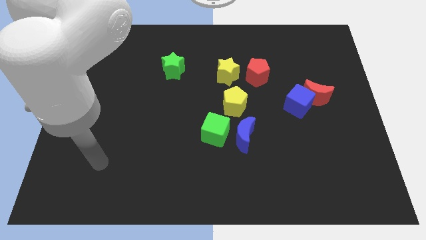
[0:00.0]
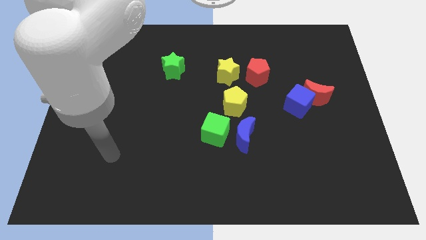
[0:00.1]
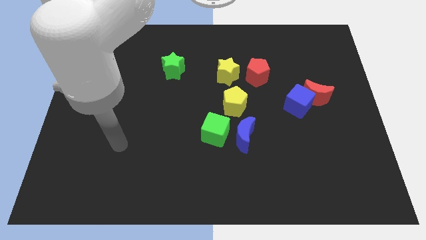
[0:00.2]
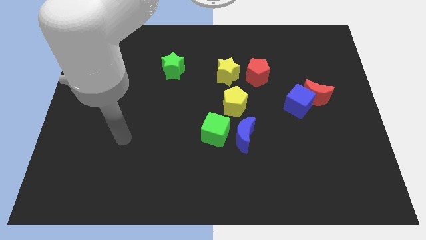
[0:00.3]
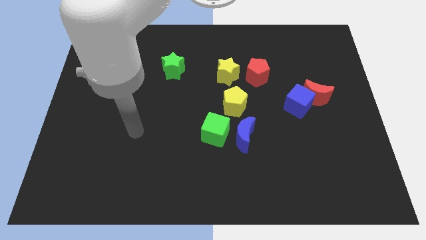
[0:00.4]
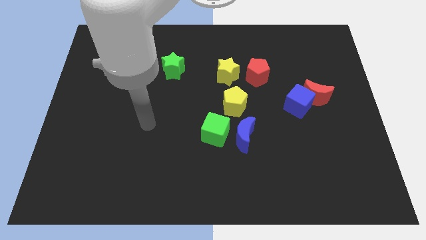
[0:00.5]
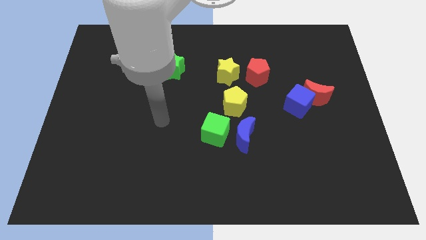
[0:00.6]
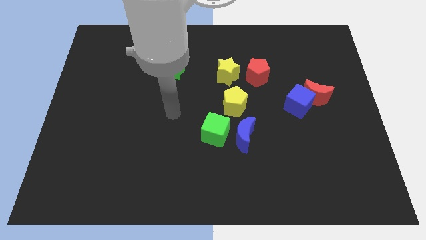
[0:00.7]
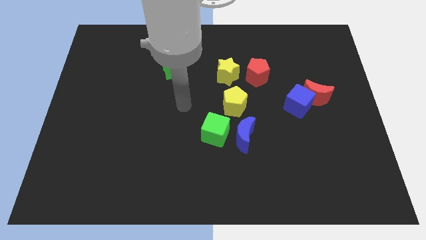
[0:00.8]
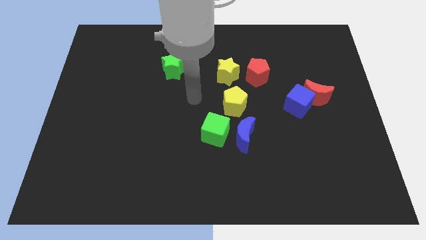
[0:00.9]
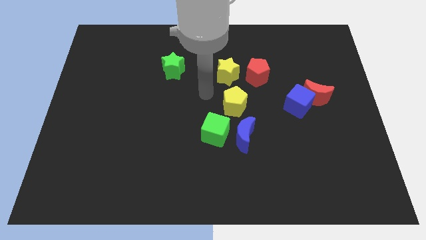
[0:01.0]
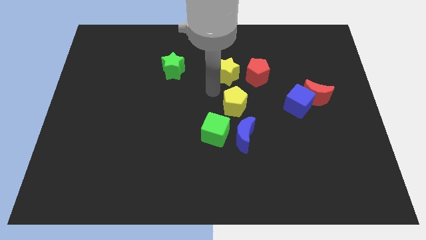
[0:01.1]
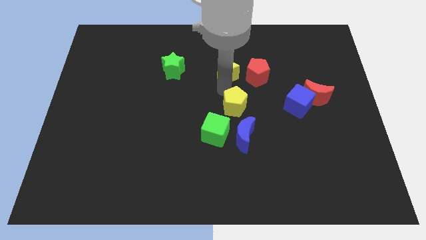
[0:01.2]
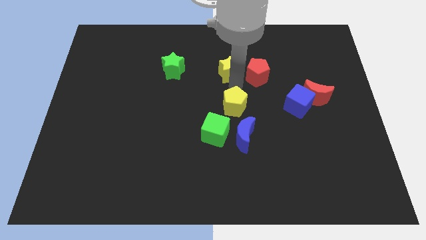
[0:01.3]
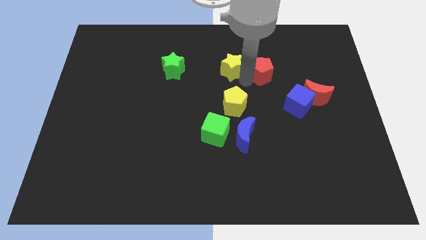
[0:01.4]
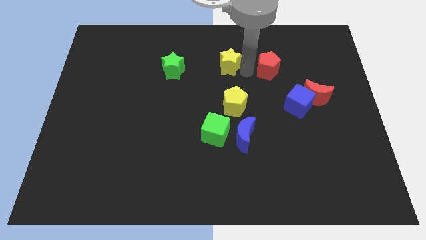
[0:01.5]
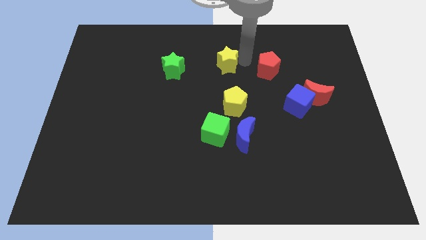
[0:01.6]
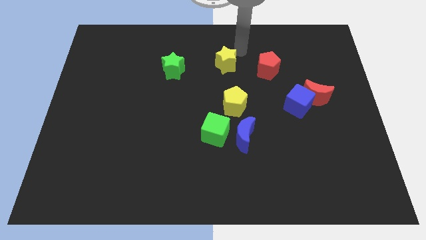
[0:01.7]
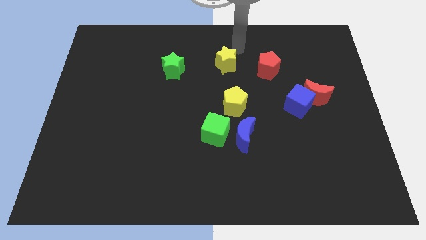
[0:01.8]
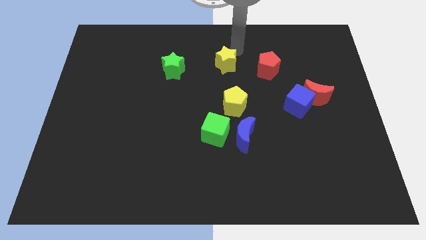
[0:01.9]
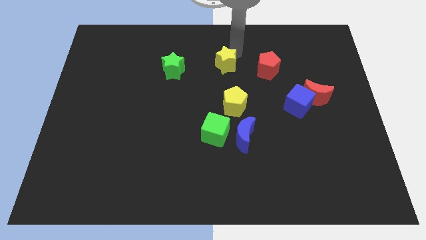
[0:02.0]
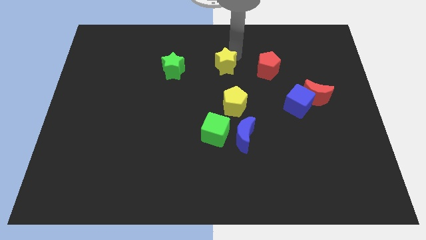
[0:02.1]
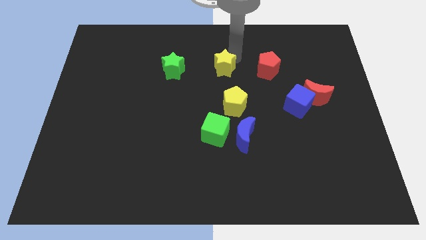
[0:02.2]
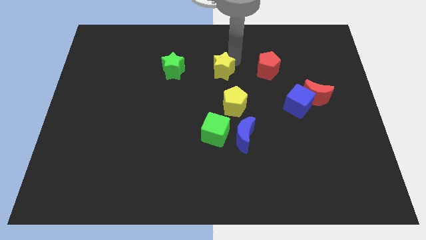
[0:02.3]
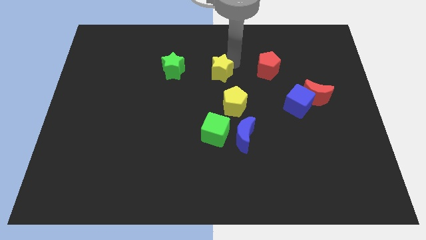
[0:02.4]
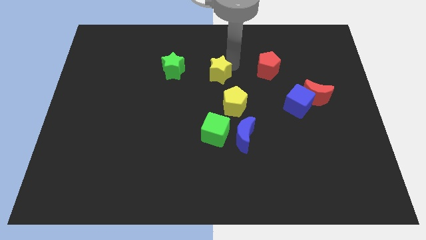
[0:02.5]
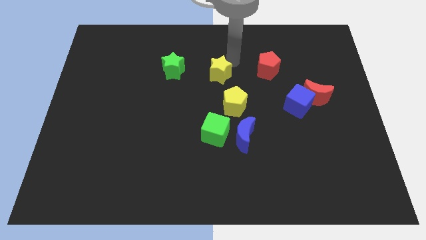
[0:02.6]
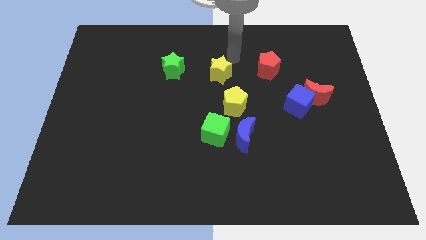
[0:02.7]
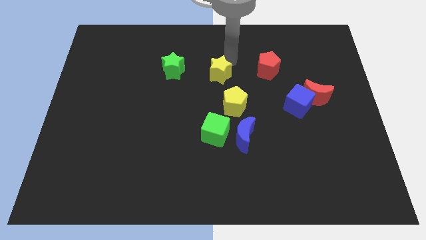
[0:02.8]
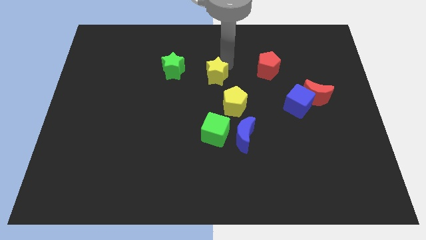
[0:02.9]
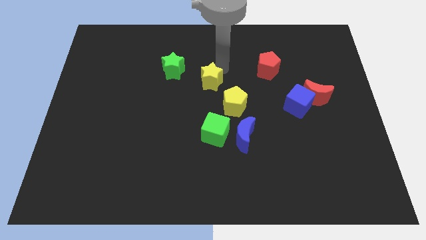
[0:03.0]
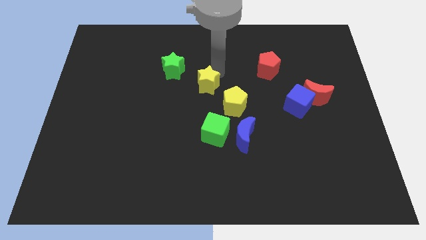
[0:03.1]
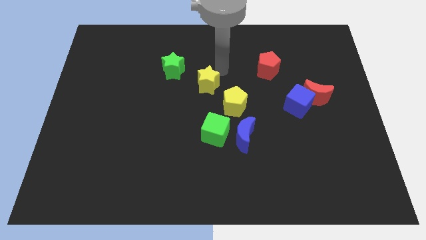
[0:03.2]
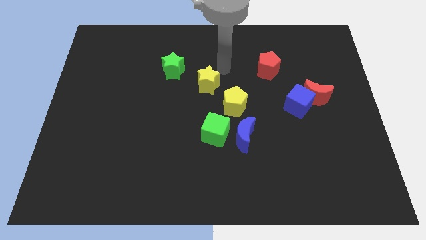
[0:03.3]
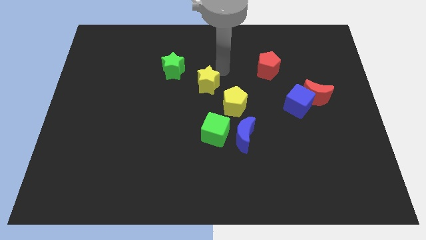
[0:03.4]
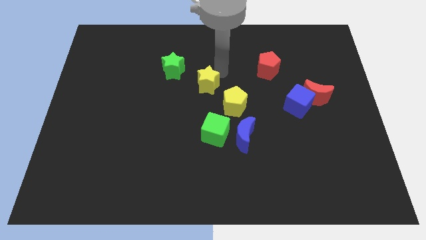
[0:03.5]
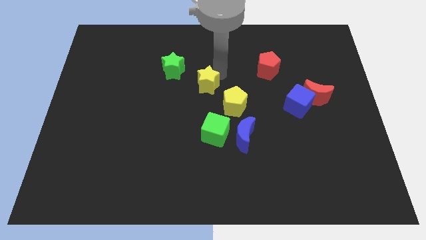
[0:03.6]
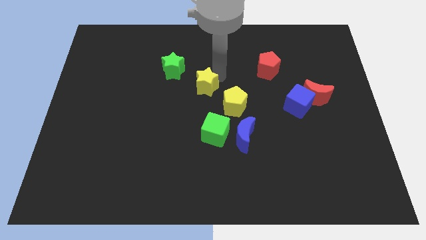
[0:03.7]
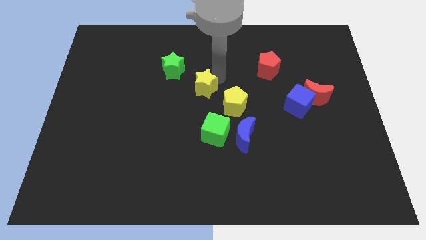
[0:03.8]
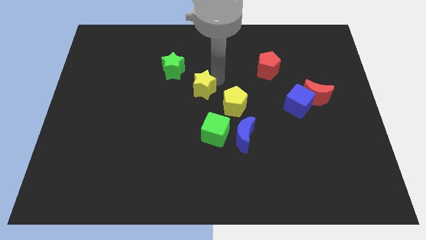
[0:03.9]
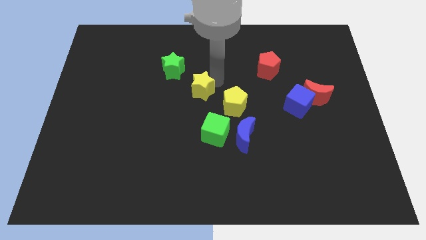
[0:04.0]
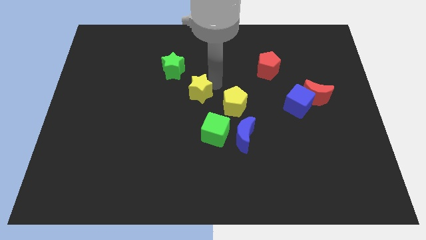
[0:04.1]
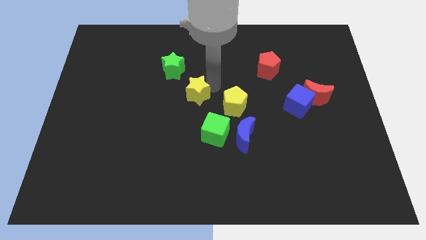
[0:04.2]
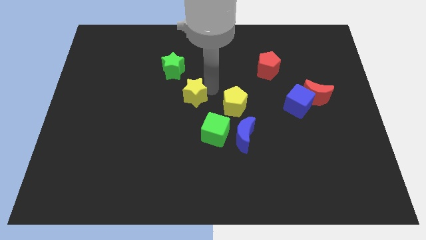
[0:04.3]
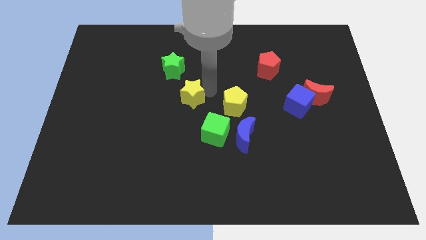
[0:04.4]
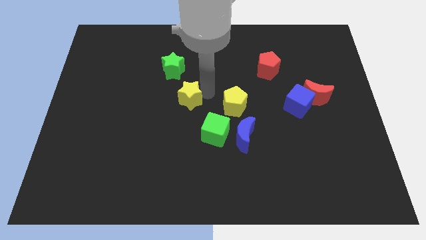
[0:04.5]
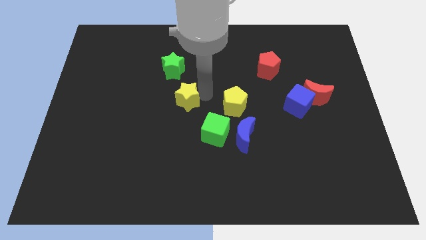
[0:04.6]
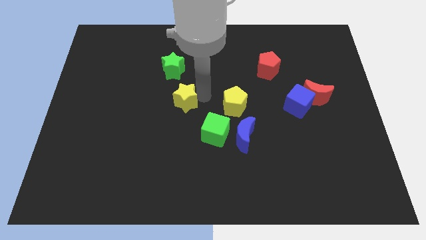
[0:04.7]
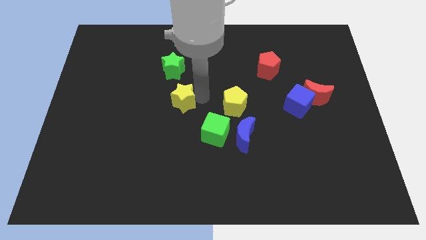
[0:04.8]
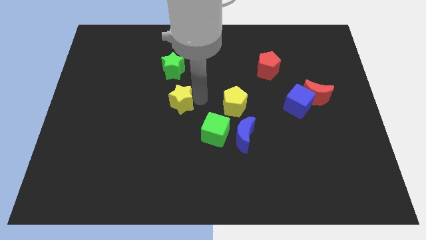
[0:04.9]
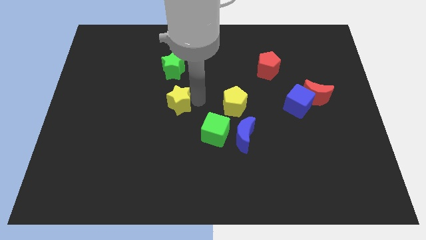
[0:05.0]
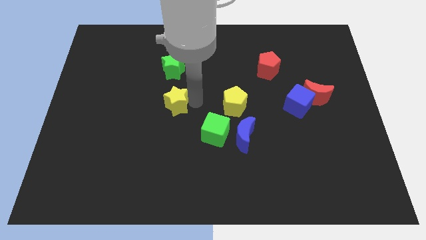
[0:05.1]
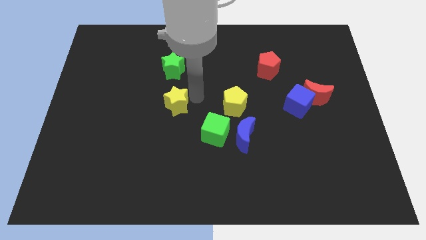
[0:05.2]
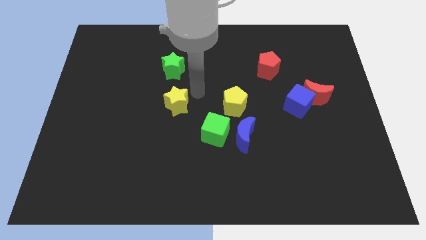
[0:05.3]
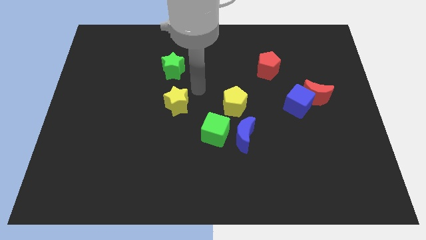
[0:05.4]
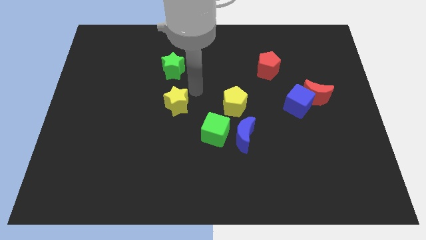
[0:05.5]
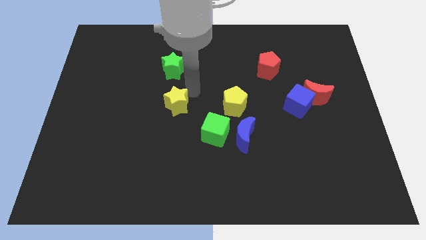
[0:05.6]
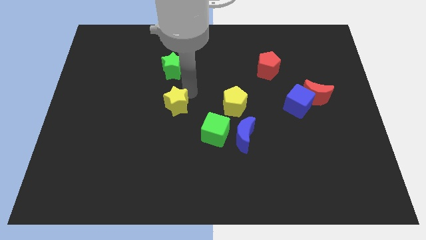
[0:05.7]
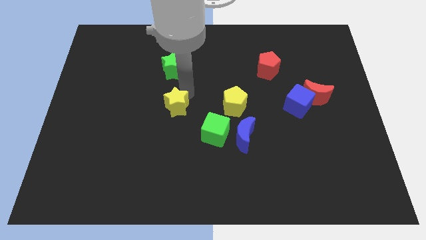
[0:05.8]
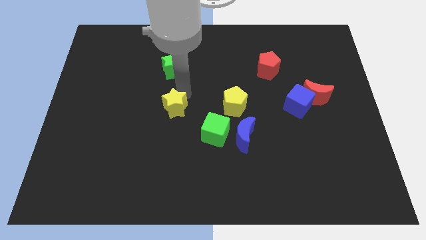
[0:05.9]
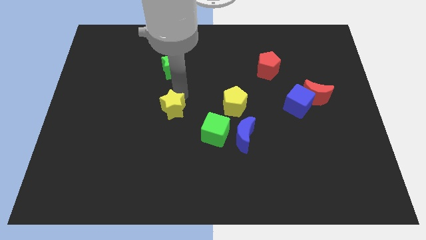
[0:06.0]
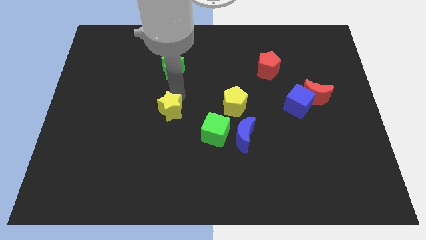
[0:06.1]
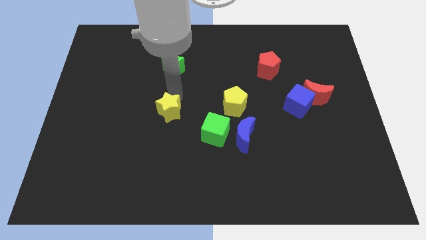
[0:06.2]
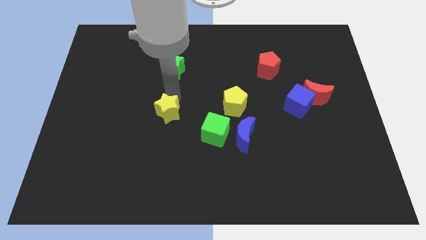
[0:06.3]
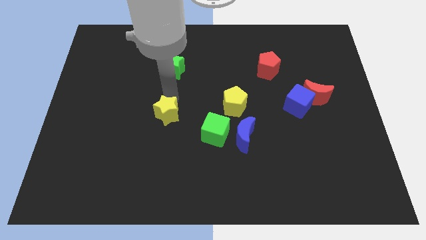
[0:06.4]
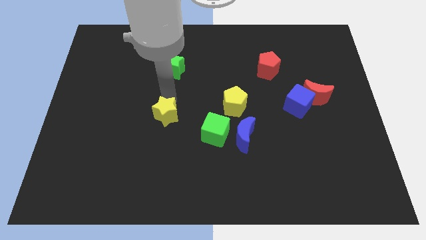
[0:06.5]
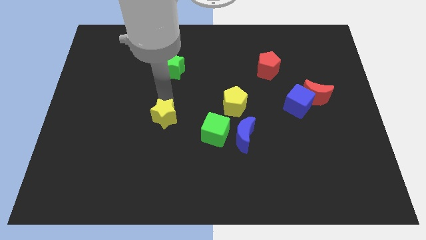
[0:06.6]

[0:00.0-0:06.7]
move the yellow star down and then left

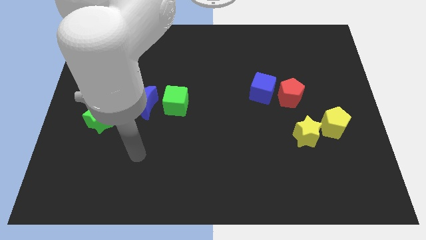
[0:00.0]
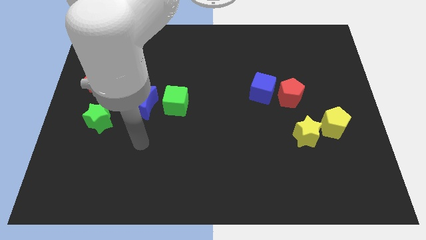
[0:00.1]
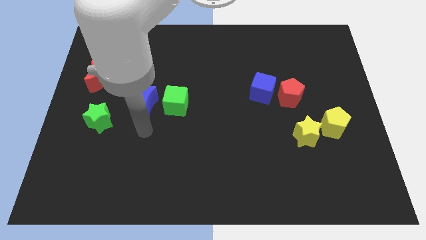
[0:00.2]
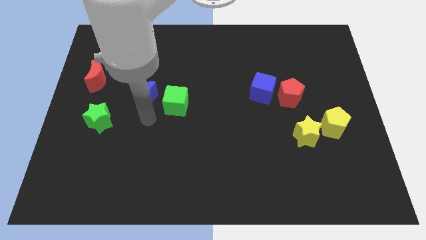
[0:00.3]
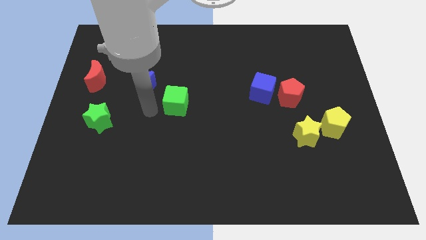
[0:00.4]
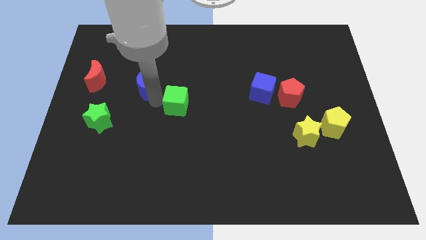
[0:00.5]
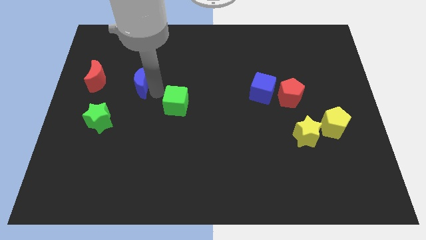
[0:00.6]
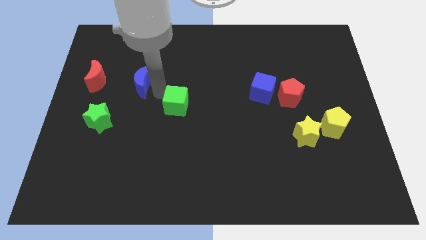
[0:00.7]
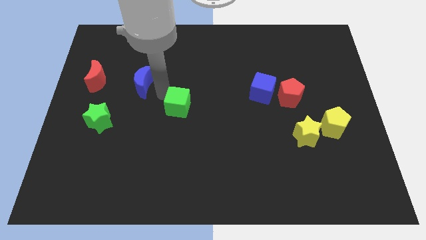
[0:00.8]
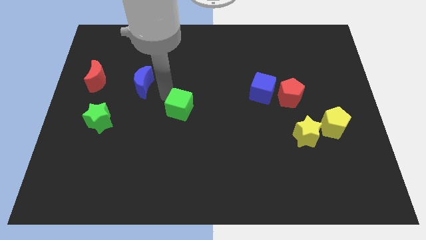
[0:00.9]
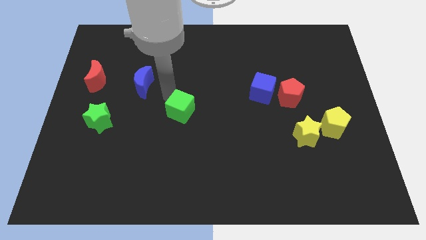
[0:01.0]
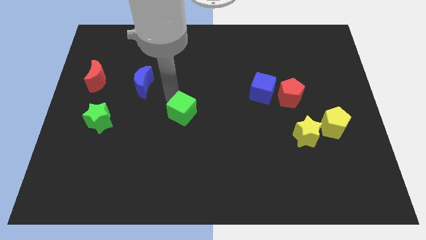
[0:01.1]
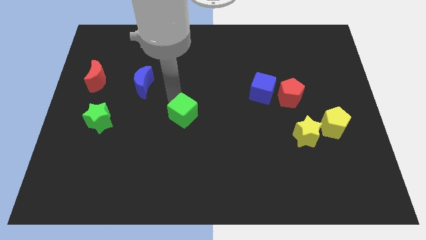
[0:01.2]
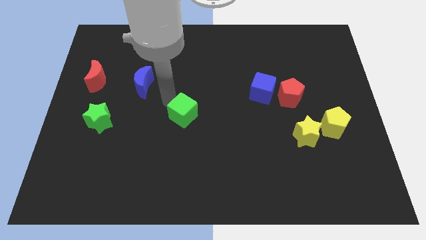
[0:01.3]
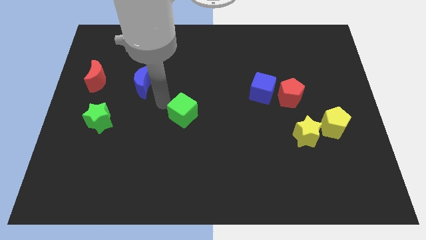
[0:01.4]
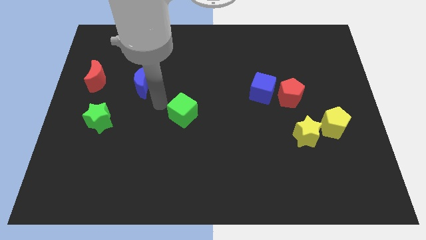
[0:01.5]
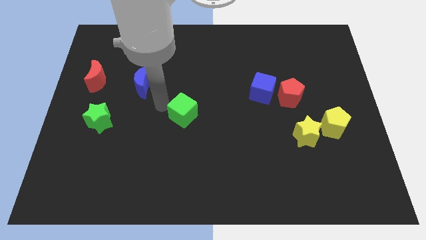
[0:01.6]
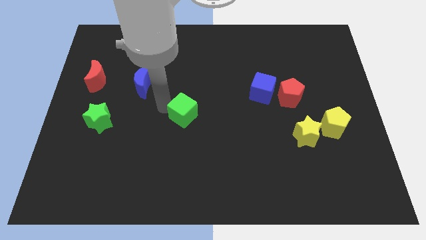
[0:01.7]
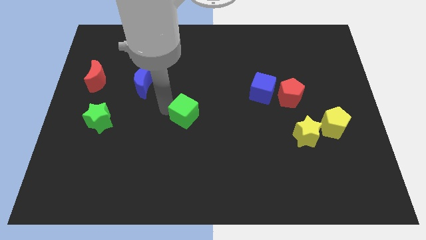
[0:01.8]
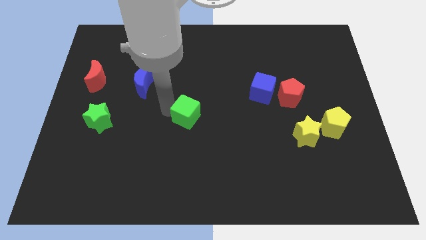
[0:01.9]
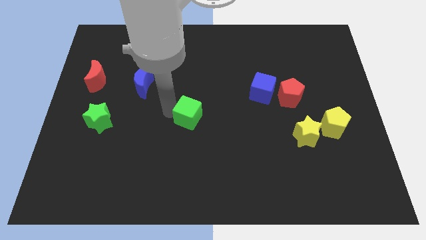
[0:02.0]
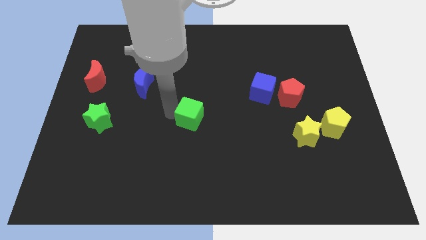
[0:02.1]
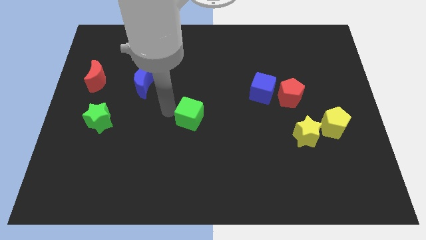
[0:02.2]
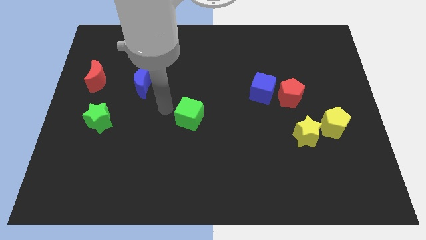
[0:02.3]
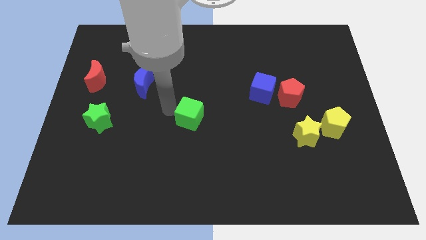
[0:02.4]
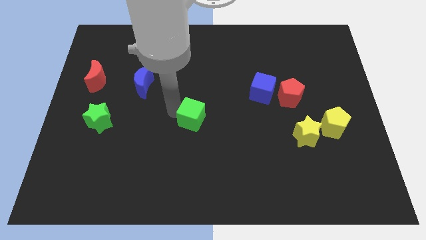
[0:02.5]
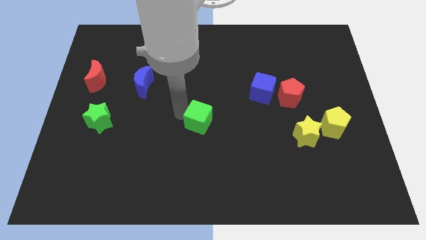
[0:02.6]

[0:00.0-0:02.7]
slide the green cube down and right diagonally somewhat
